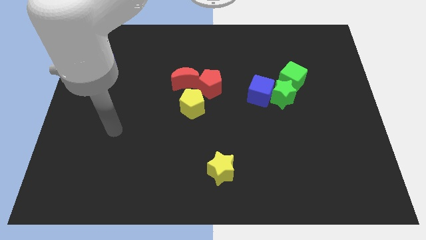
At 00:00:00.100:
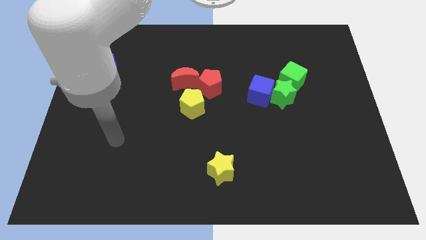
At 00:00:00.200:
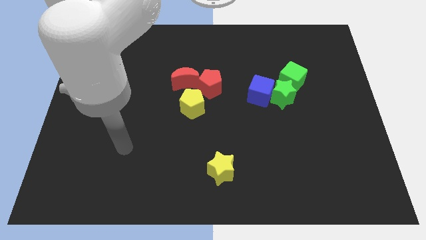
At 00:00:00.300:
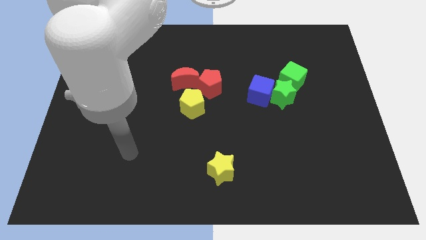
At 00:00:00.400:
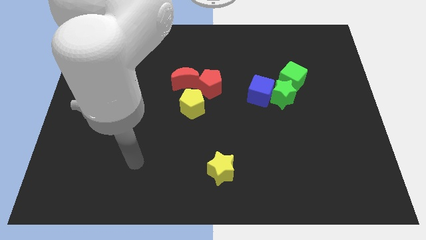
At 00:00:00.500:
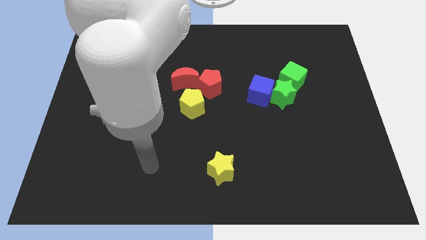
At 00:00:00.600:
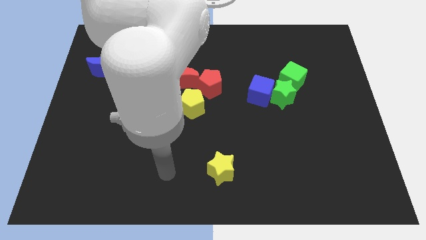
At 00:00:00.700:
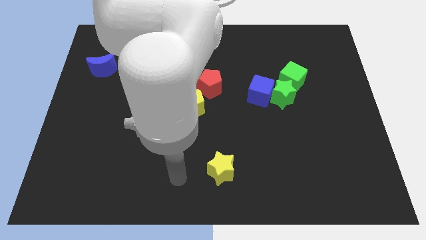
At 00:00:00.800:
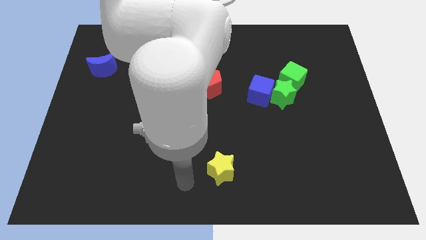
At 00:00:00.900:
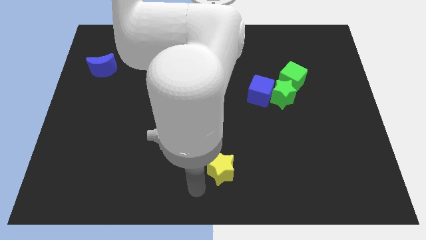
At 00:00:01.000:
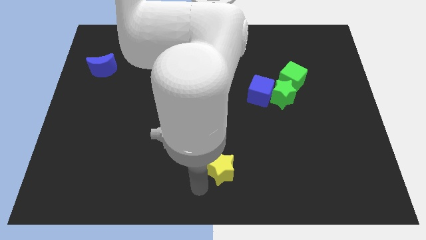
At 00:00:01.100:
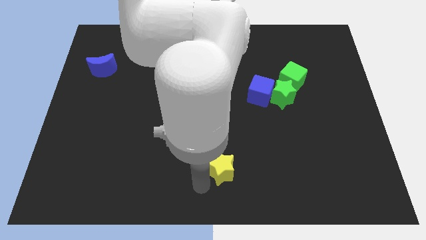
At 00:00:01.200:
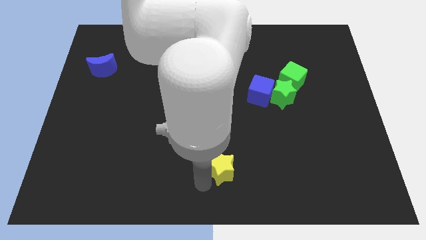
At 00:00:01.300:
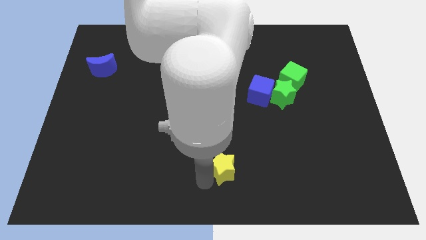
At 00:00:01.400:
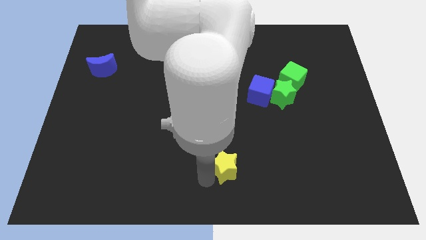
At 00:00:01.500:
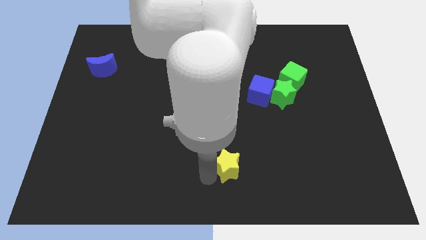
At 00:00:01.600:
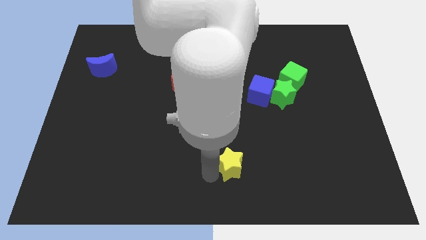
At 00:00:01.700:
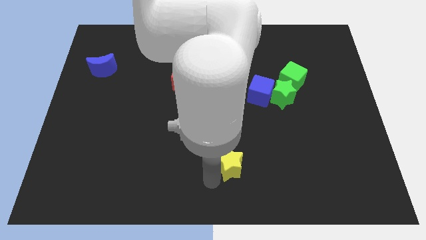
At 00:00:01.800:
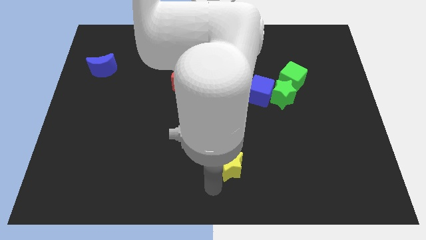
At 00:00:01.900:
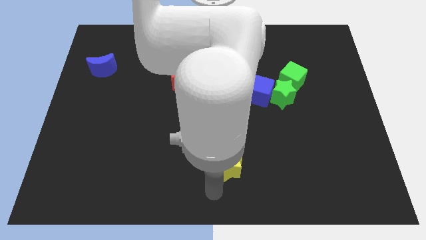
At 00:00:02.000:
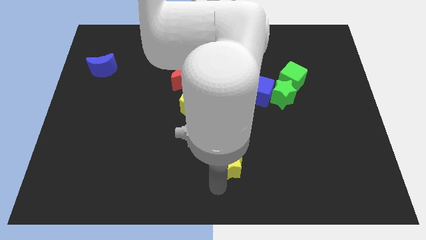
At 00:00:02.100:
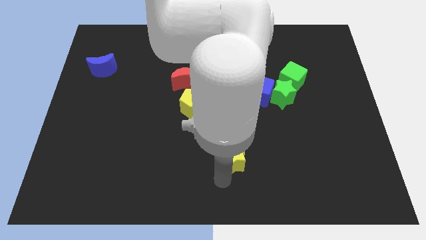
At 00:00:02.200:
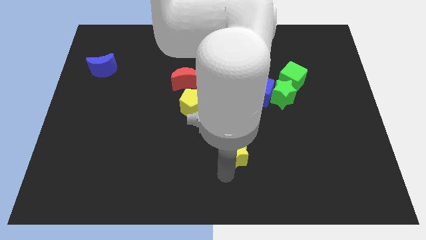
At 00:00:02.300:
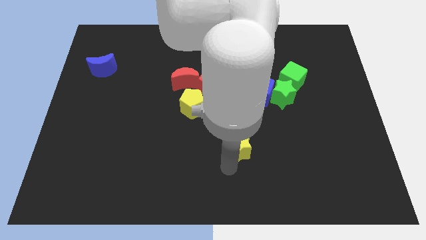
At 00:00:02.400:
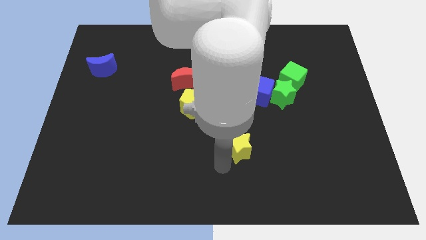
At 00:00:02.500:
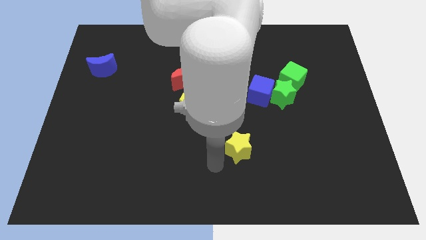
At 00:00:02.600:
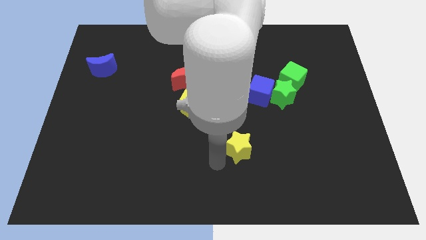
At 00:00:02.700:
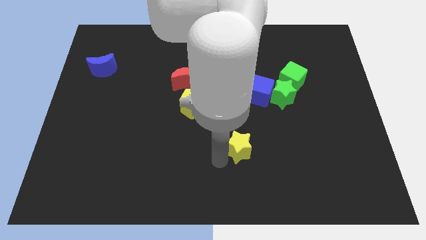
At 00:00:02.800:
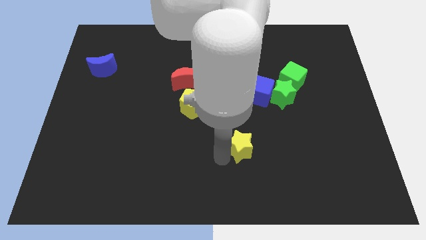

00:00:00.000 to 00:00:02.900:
slightly push the yellow star up and right diagonally

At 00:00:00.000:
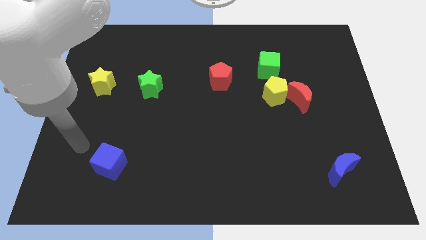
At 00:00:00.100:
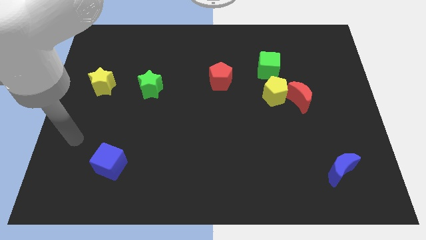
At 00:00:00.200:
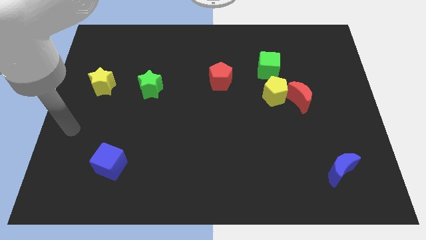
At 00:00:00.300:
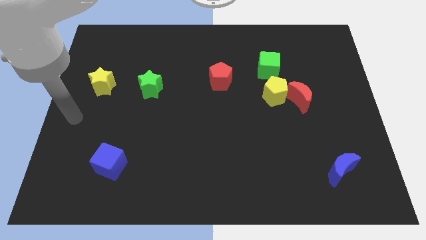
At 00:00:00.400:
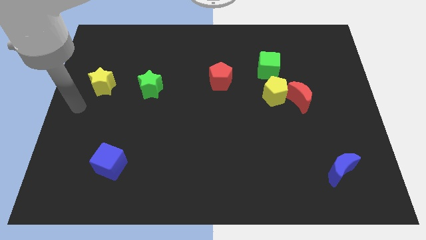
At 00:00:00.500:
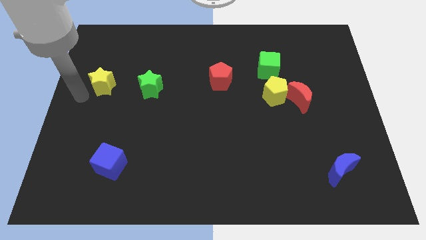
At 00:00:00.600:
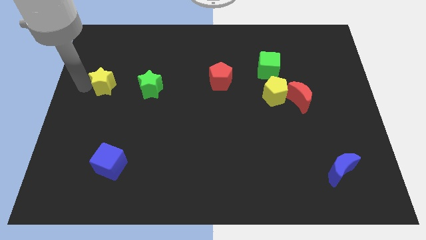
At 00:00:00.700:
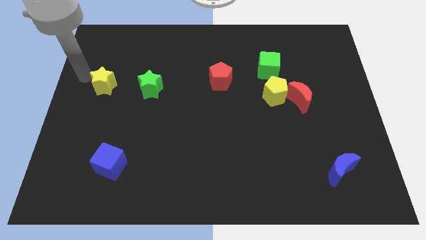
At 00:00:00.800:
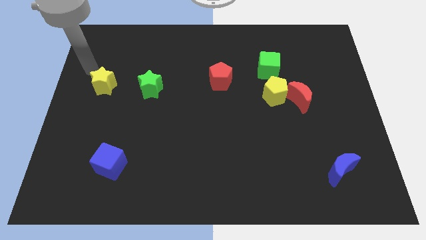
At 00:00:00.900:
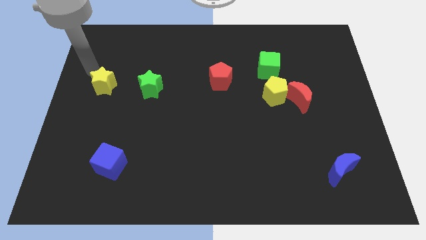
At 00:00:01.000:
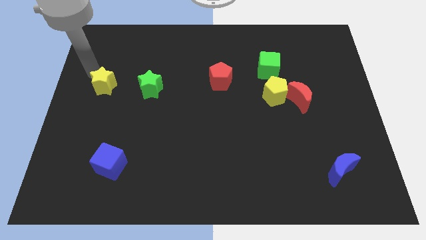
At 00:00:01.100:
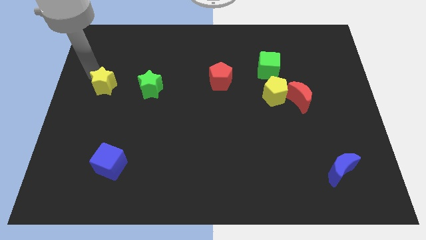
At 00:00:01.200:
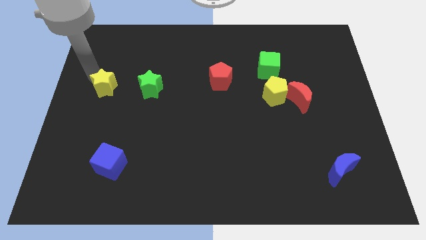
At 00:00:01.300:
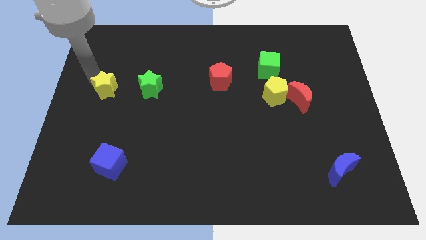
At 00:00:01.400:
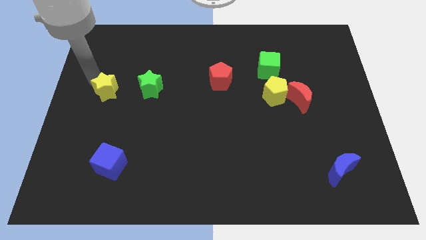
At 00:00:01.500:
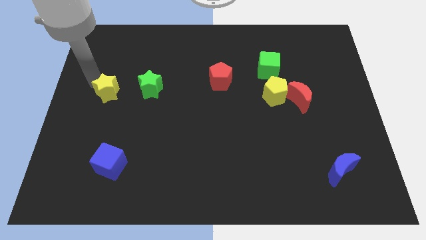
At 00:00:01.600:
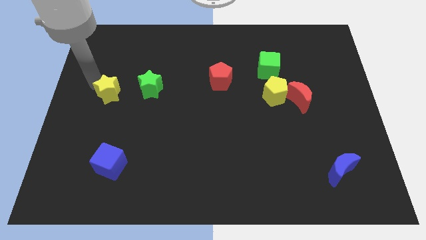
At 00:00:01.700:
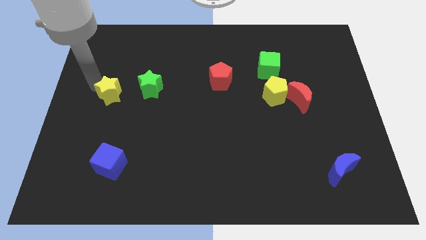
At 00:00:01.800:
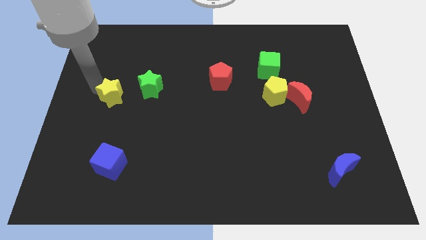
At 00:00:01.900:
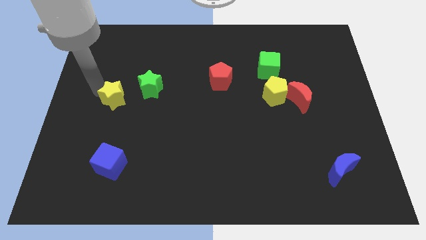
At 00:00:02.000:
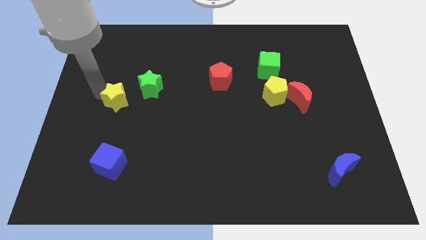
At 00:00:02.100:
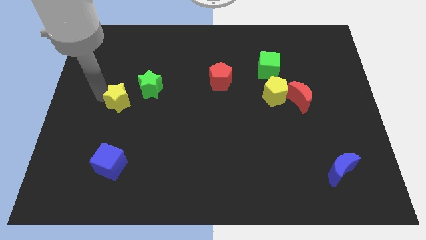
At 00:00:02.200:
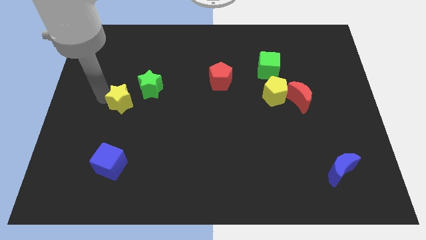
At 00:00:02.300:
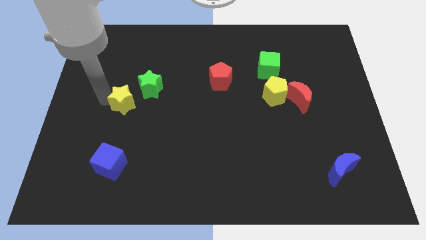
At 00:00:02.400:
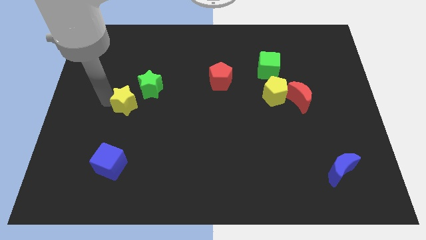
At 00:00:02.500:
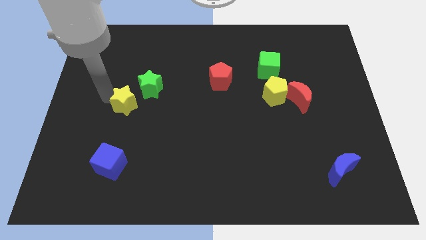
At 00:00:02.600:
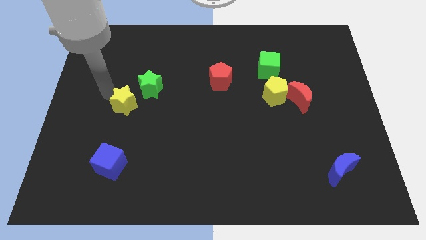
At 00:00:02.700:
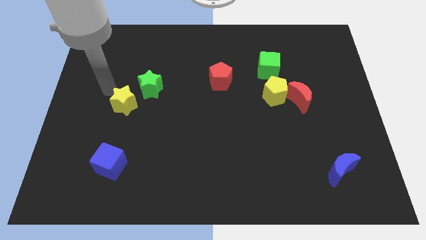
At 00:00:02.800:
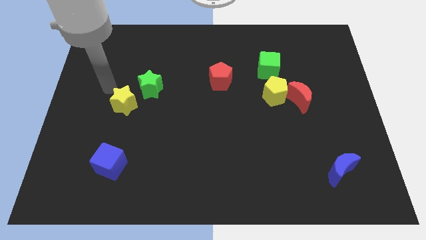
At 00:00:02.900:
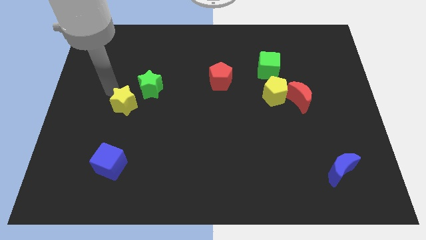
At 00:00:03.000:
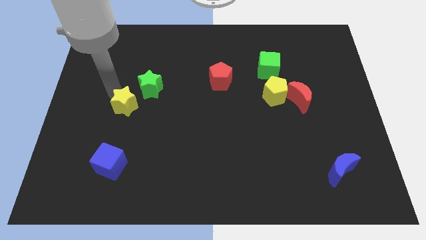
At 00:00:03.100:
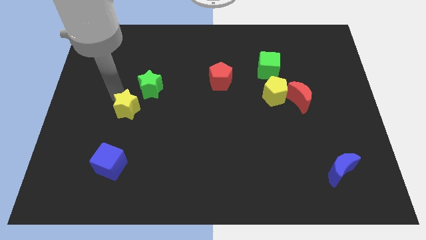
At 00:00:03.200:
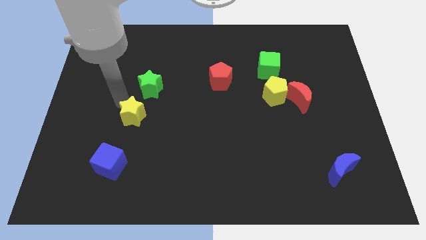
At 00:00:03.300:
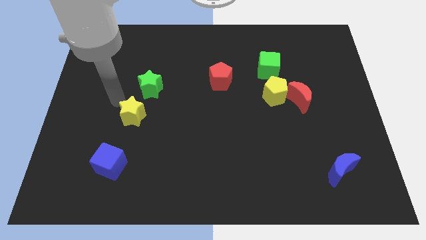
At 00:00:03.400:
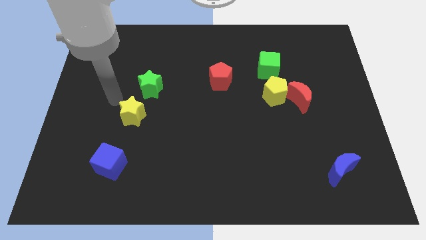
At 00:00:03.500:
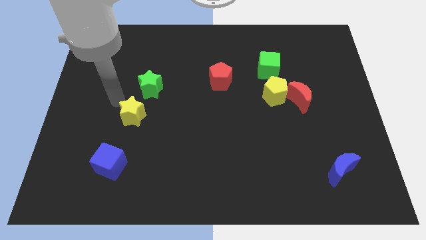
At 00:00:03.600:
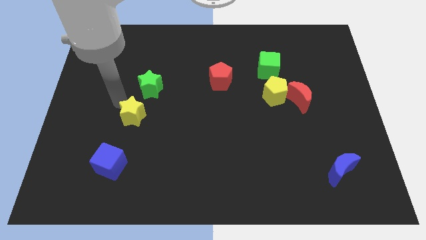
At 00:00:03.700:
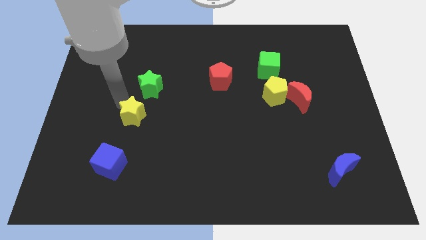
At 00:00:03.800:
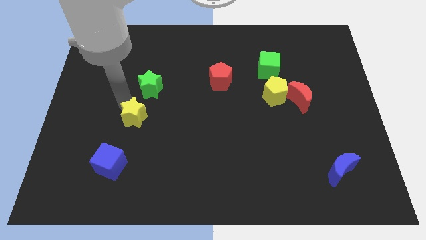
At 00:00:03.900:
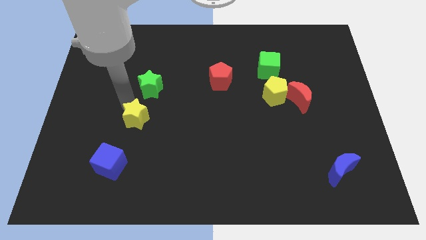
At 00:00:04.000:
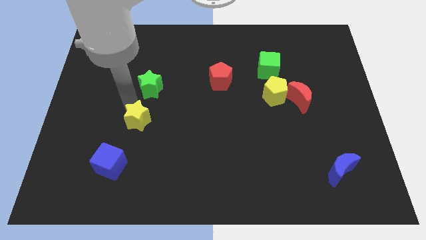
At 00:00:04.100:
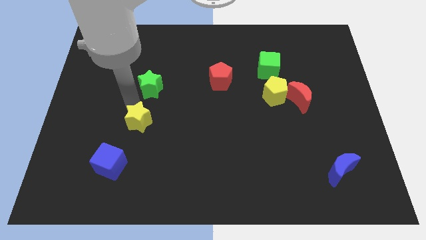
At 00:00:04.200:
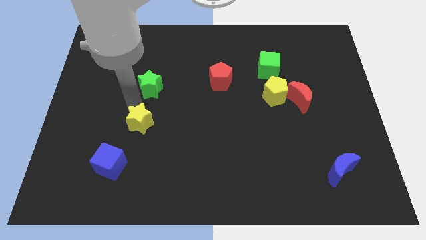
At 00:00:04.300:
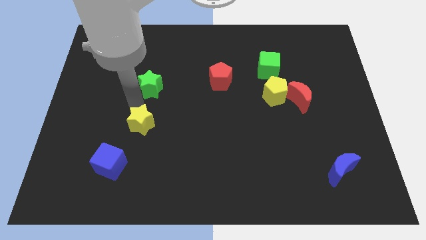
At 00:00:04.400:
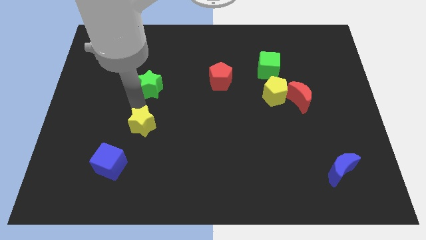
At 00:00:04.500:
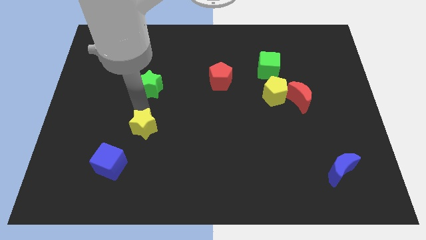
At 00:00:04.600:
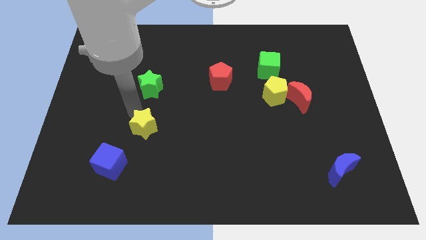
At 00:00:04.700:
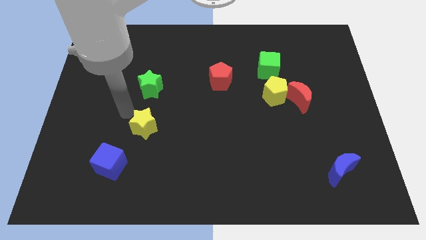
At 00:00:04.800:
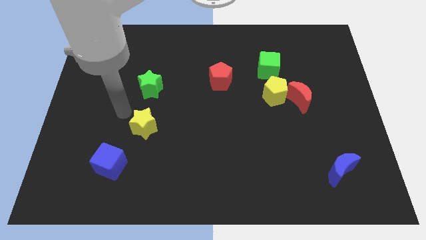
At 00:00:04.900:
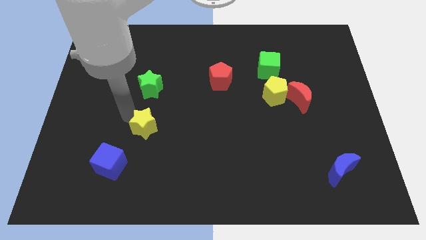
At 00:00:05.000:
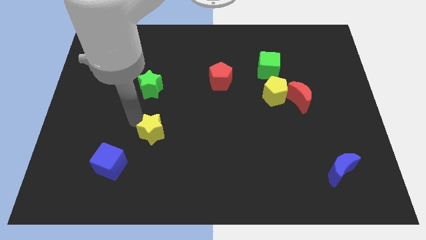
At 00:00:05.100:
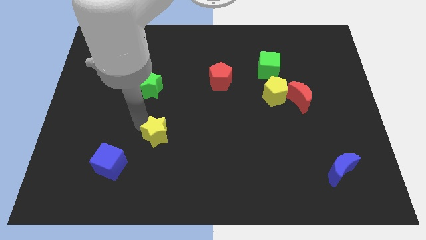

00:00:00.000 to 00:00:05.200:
slide the yellow star down and right diagonally

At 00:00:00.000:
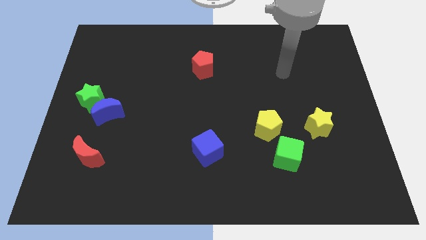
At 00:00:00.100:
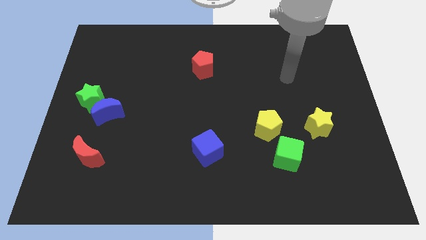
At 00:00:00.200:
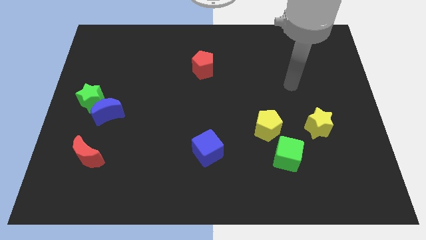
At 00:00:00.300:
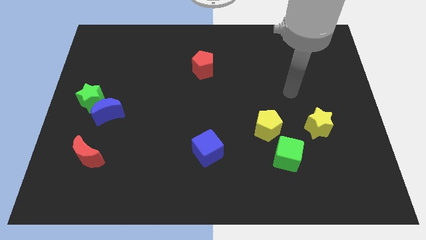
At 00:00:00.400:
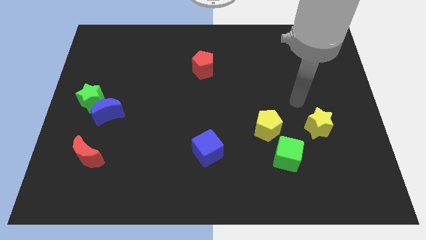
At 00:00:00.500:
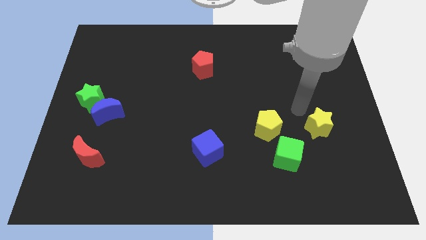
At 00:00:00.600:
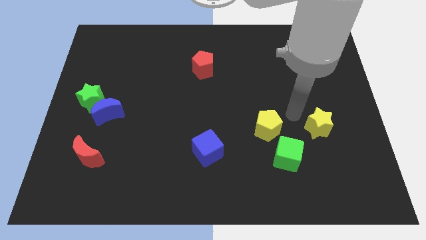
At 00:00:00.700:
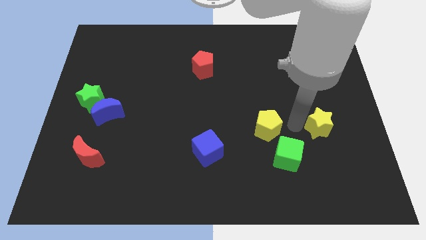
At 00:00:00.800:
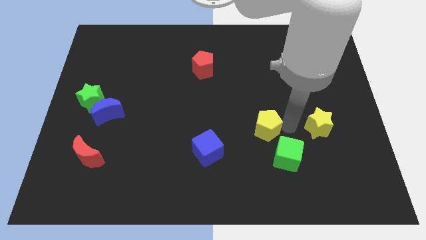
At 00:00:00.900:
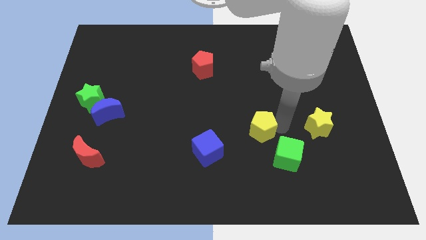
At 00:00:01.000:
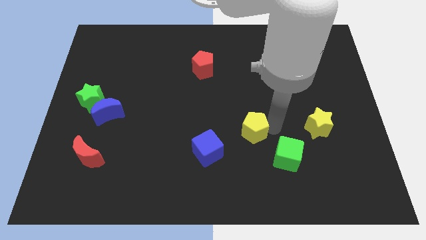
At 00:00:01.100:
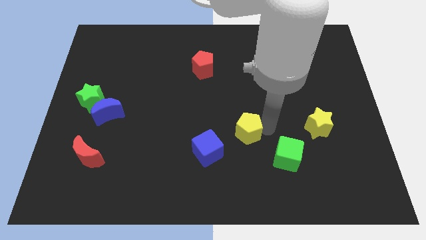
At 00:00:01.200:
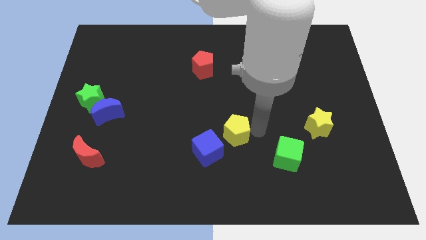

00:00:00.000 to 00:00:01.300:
slightly push the yellow pentagon to the left
